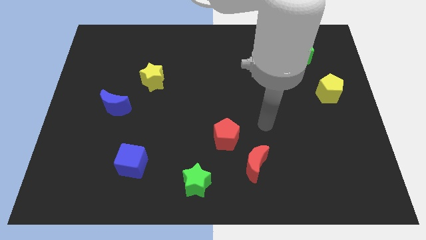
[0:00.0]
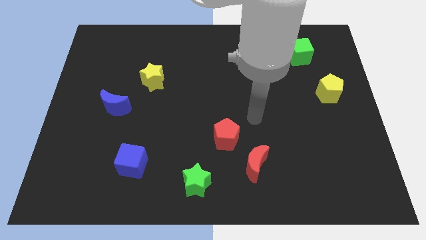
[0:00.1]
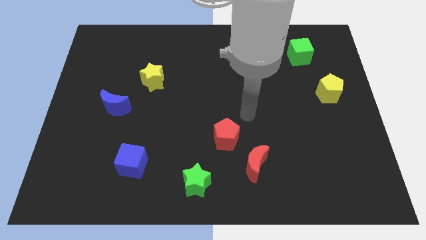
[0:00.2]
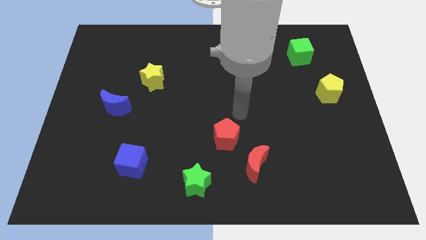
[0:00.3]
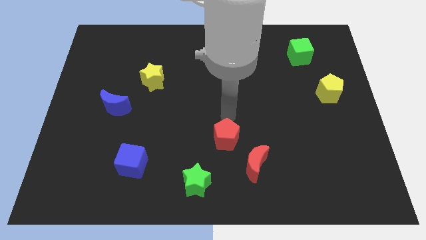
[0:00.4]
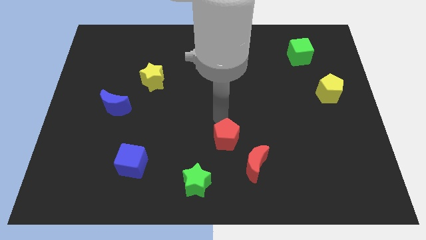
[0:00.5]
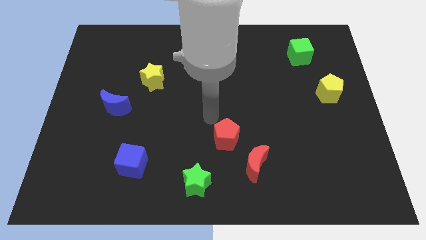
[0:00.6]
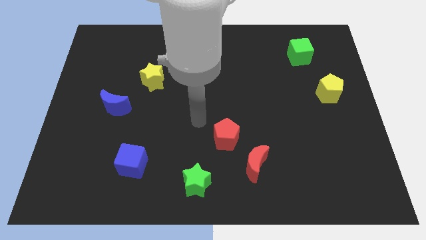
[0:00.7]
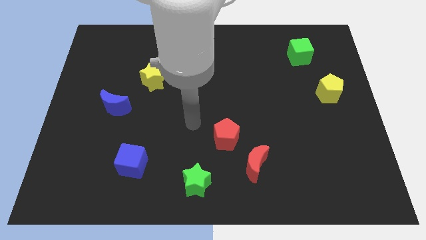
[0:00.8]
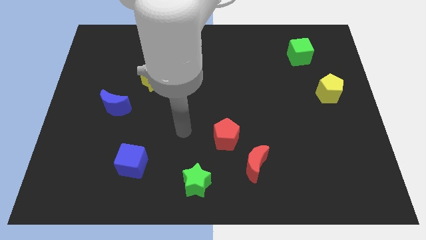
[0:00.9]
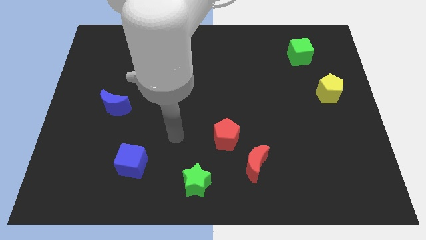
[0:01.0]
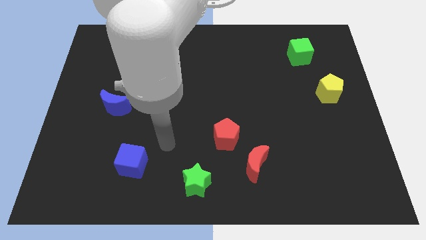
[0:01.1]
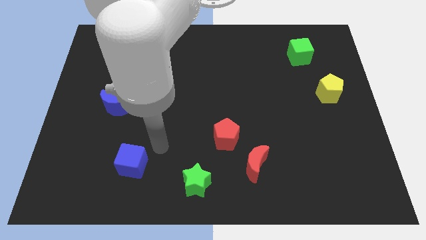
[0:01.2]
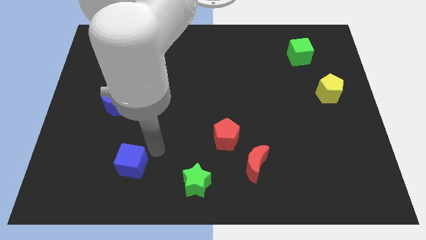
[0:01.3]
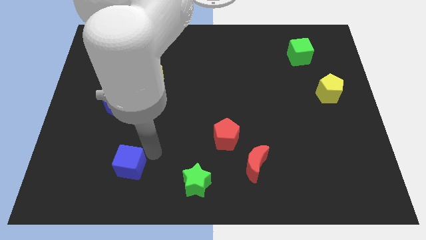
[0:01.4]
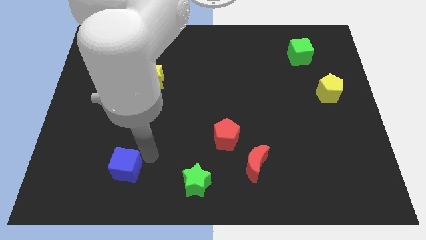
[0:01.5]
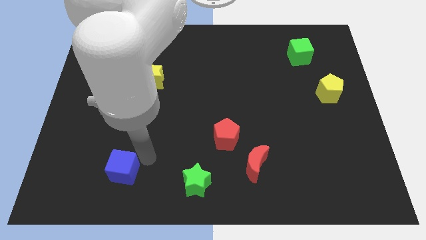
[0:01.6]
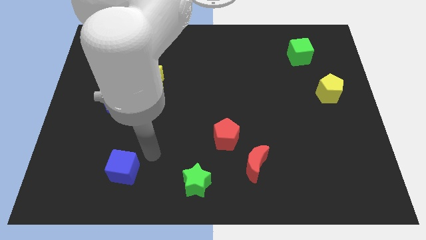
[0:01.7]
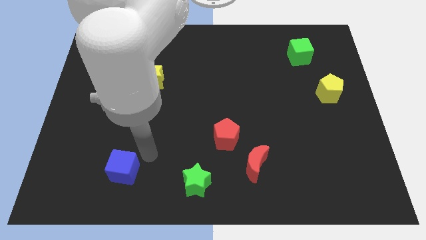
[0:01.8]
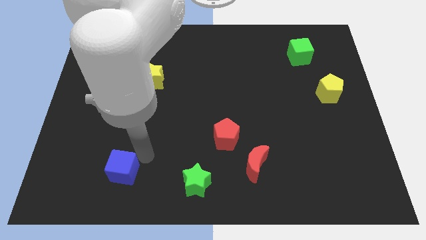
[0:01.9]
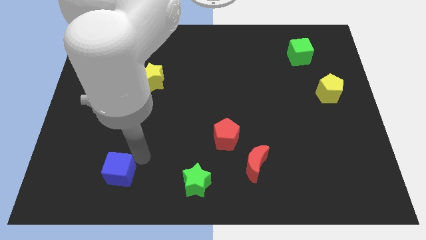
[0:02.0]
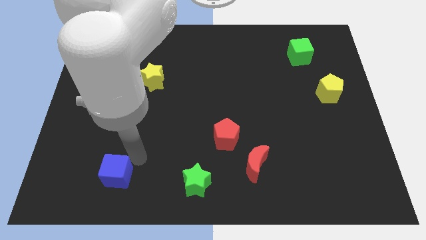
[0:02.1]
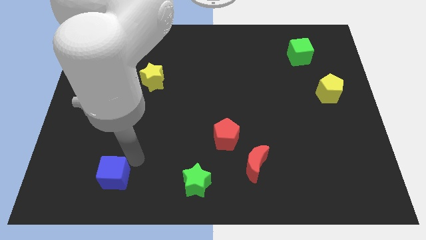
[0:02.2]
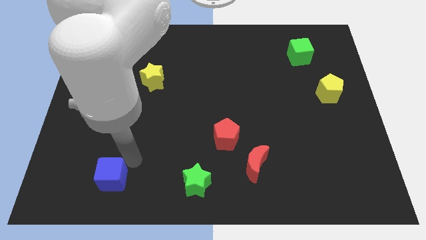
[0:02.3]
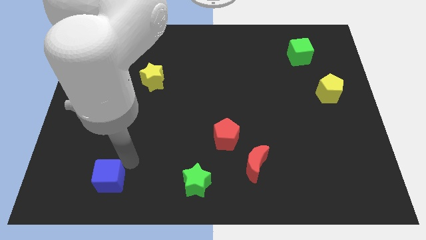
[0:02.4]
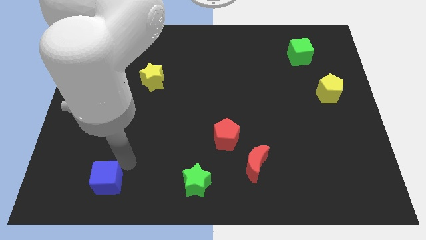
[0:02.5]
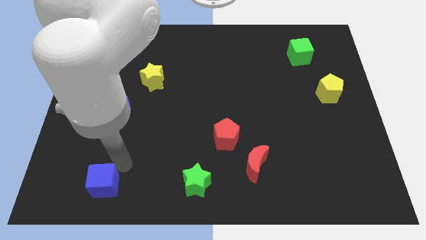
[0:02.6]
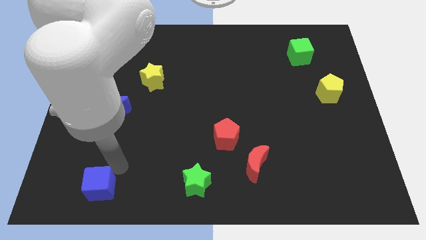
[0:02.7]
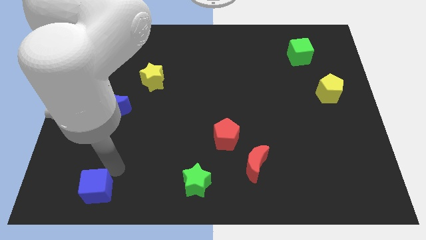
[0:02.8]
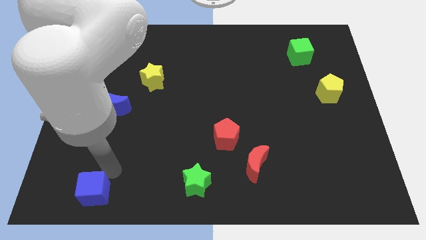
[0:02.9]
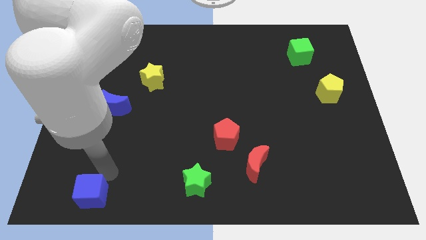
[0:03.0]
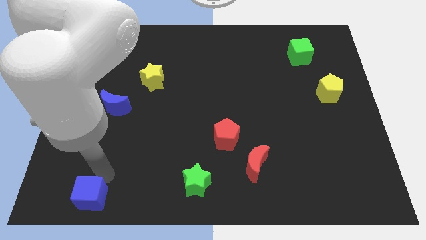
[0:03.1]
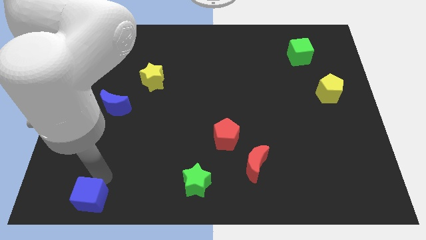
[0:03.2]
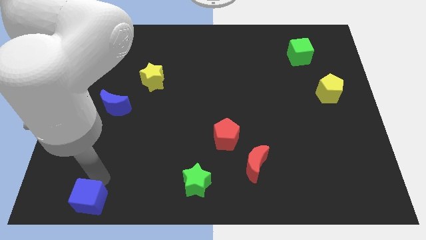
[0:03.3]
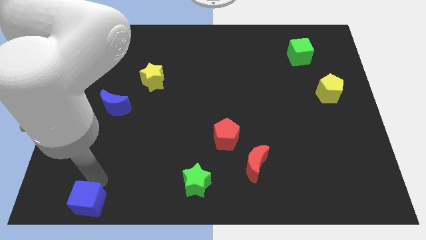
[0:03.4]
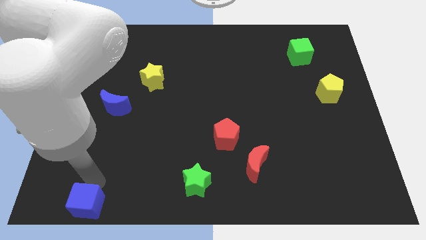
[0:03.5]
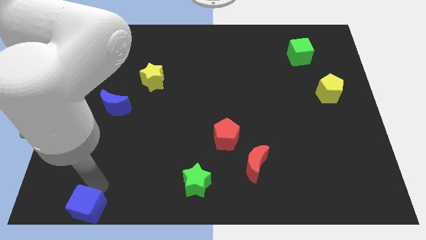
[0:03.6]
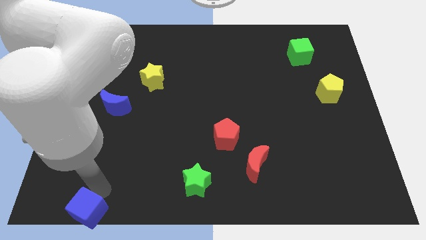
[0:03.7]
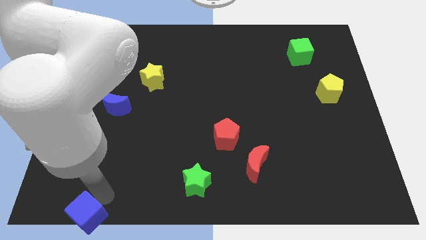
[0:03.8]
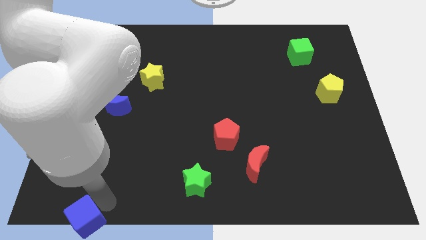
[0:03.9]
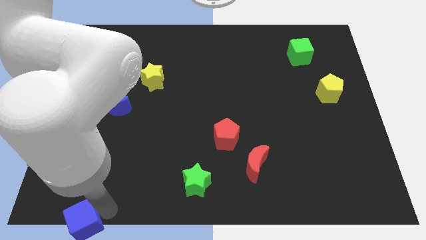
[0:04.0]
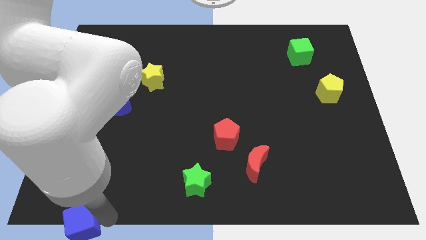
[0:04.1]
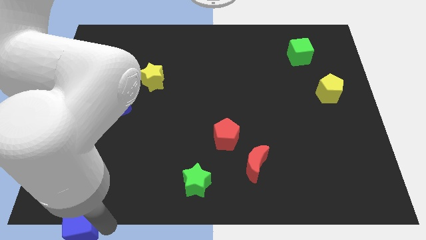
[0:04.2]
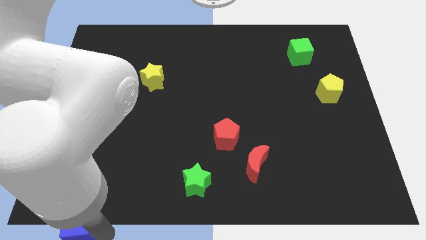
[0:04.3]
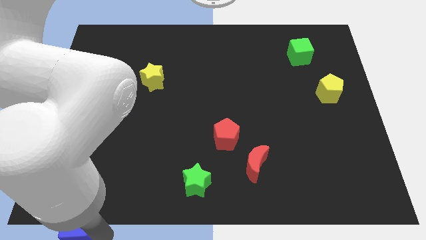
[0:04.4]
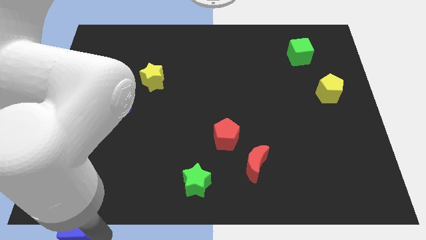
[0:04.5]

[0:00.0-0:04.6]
slide the blue cube to the bottom left corner

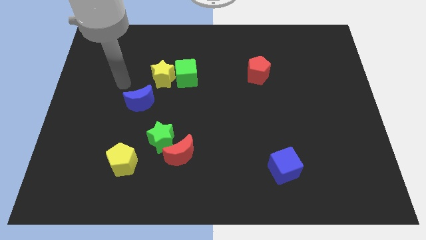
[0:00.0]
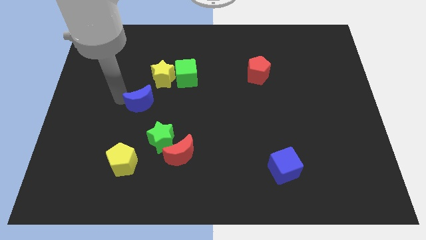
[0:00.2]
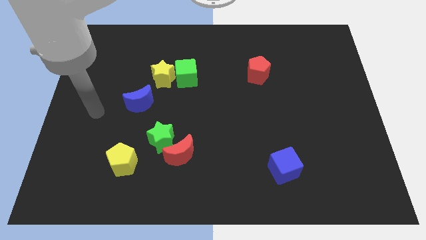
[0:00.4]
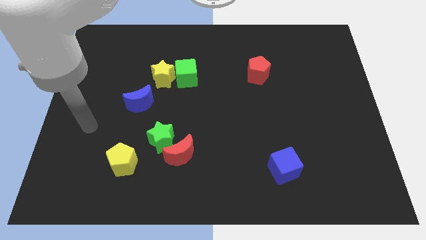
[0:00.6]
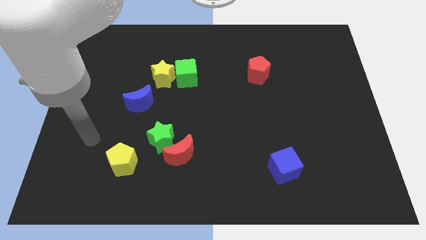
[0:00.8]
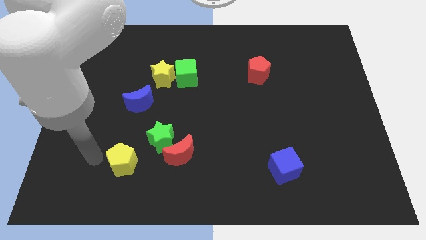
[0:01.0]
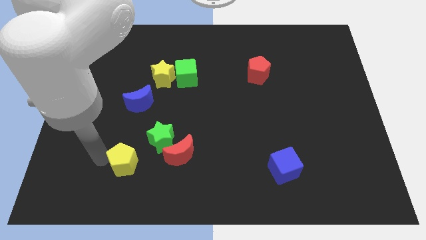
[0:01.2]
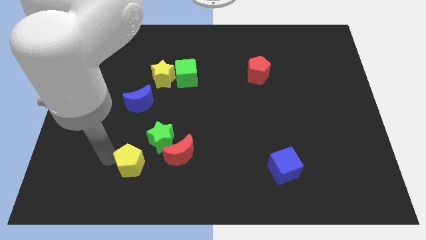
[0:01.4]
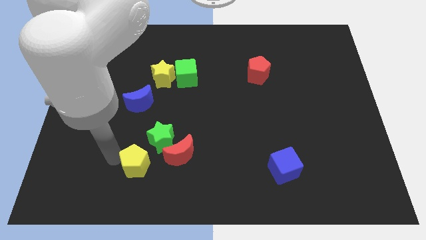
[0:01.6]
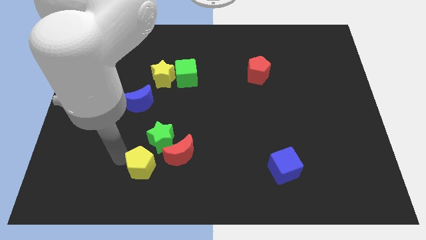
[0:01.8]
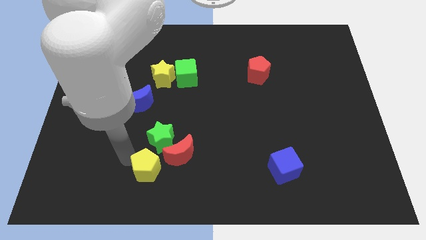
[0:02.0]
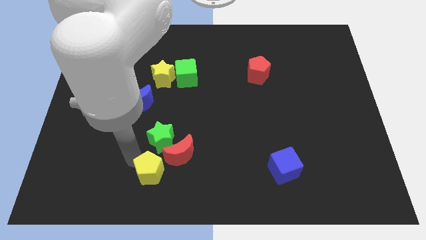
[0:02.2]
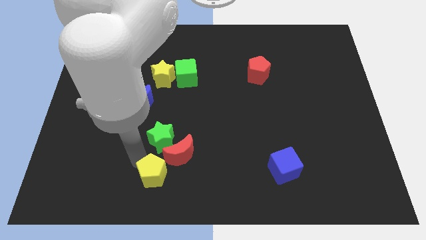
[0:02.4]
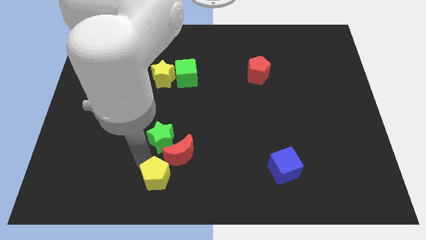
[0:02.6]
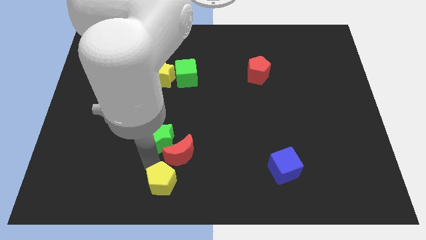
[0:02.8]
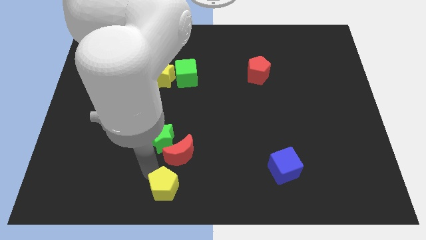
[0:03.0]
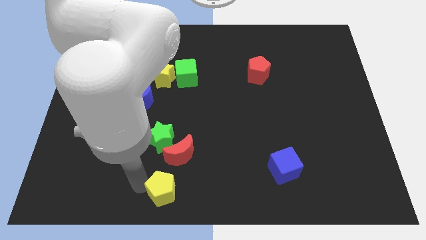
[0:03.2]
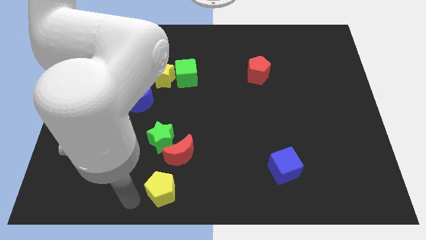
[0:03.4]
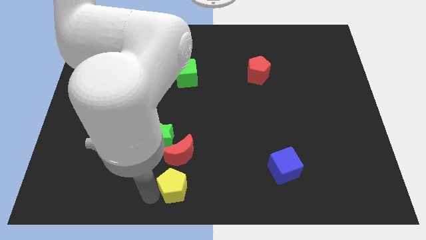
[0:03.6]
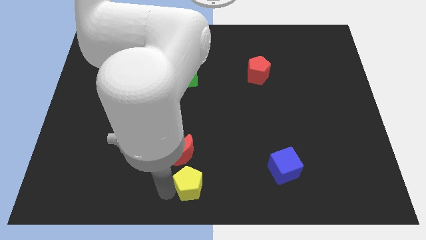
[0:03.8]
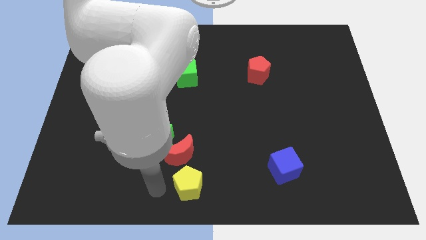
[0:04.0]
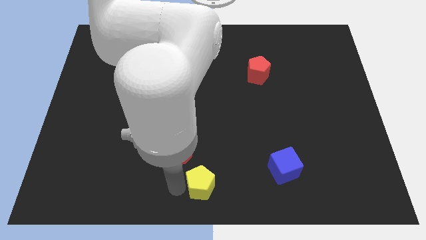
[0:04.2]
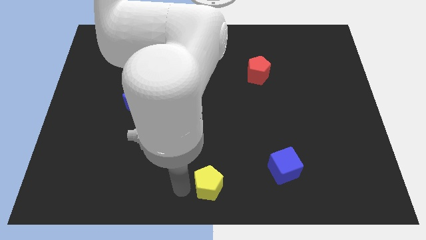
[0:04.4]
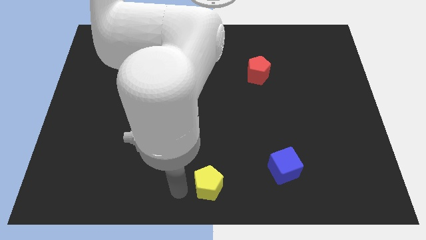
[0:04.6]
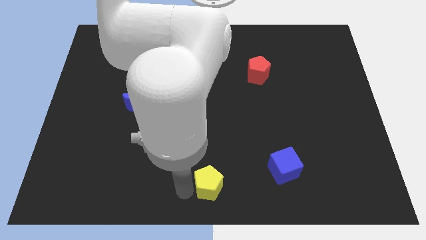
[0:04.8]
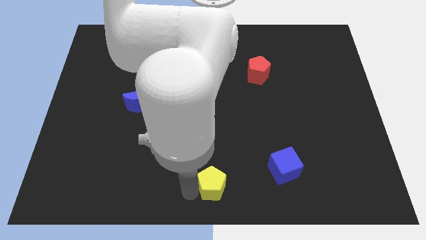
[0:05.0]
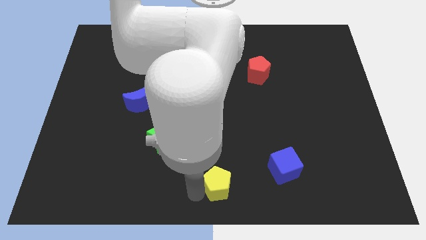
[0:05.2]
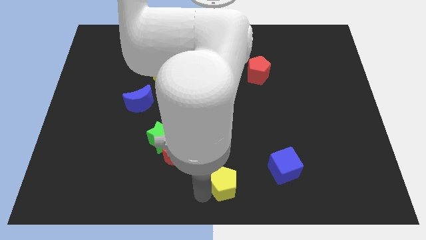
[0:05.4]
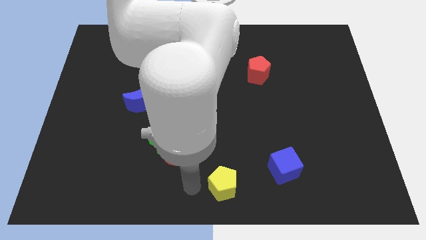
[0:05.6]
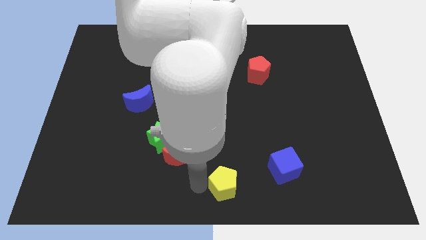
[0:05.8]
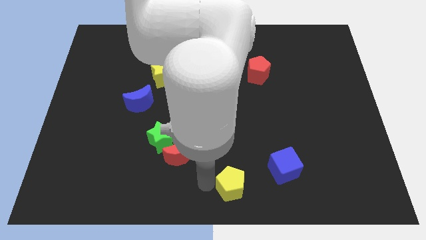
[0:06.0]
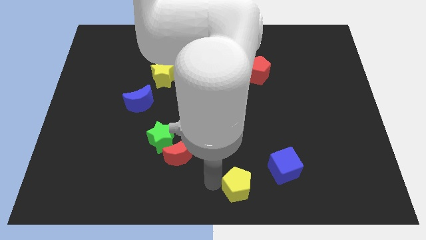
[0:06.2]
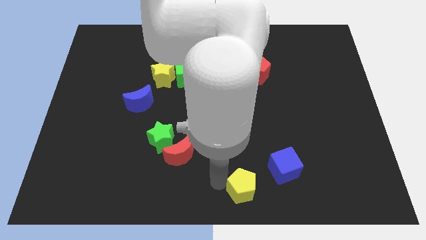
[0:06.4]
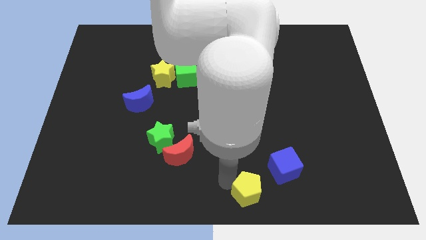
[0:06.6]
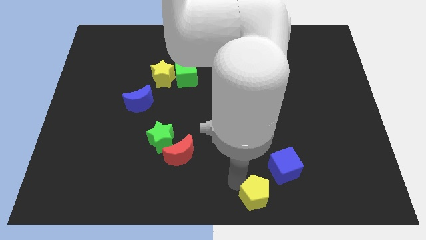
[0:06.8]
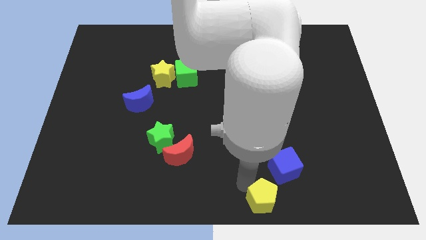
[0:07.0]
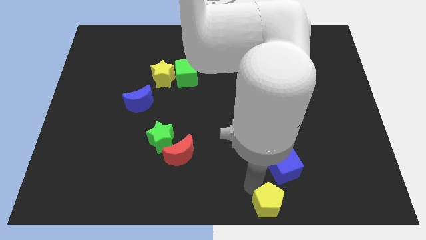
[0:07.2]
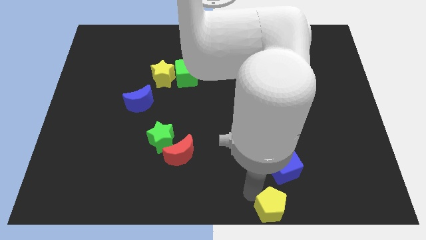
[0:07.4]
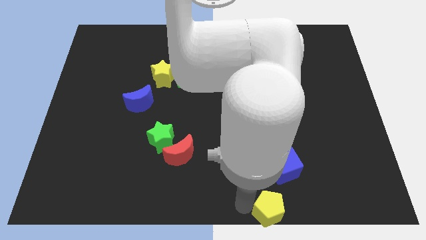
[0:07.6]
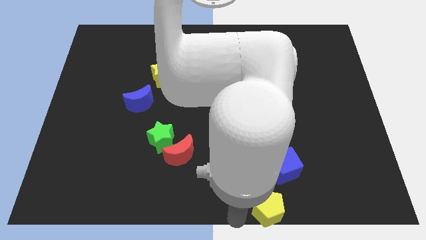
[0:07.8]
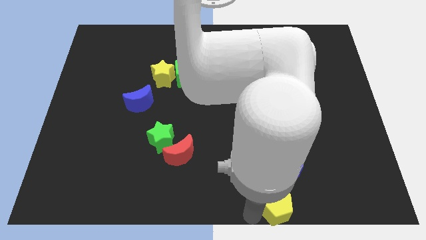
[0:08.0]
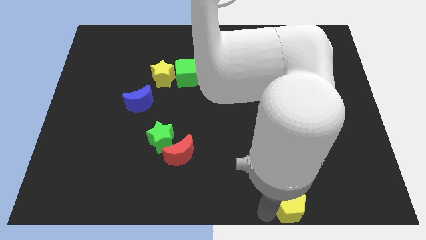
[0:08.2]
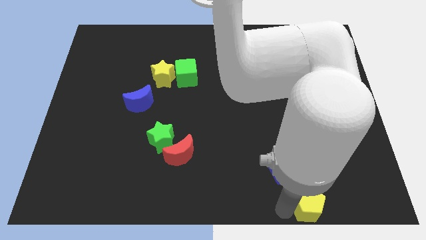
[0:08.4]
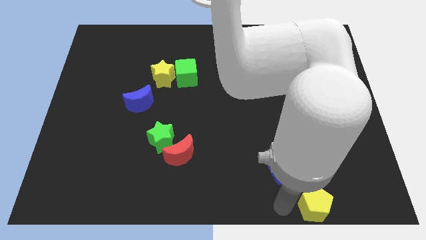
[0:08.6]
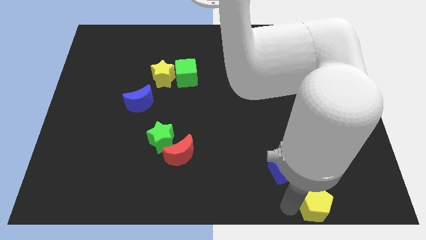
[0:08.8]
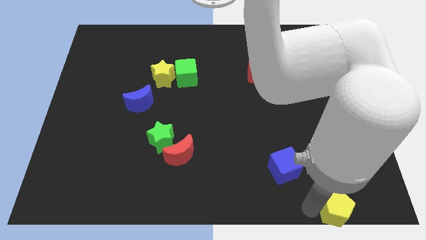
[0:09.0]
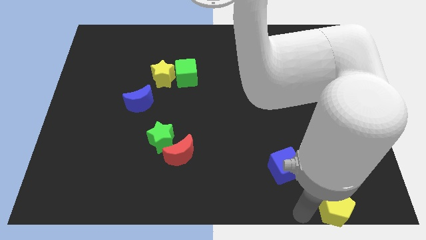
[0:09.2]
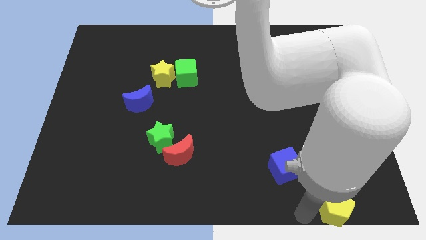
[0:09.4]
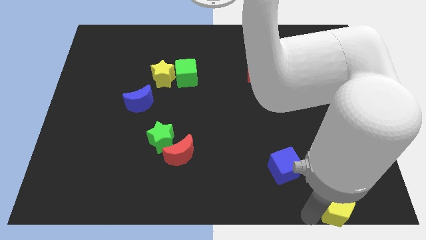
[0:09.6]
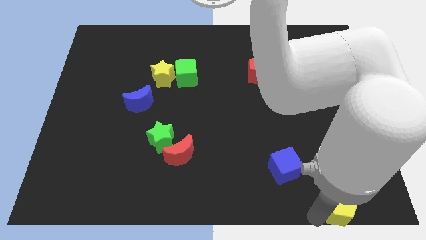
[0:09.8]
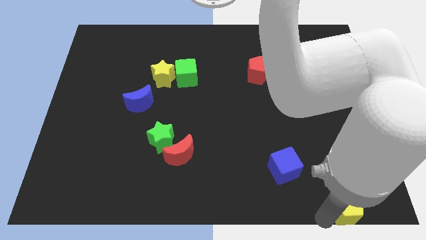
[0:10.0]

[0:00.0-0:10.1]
move the yellow pentagon to the bottom right
